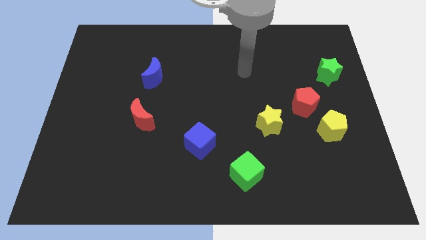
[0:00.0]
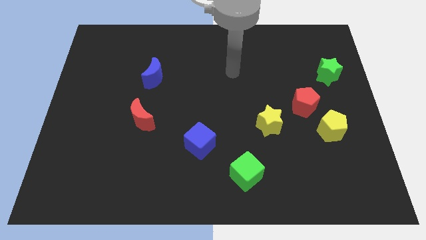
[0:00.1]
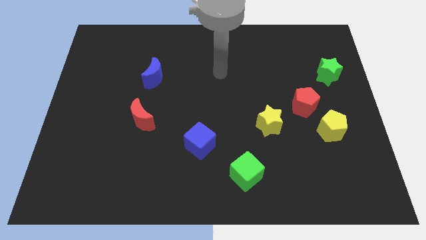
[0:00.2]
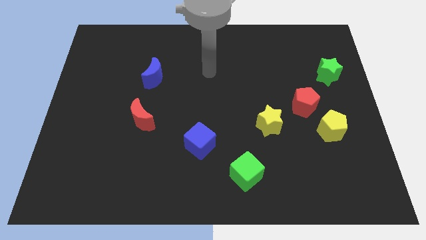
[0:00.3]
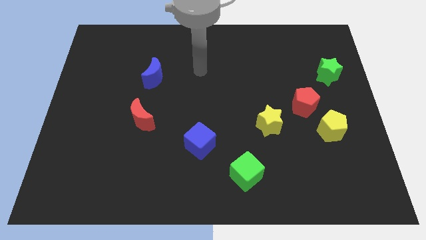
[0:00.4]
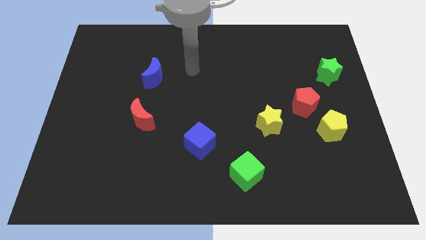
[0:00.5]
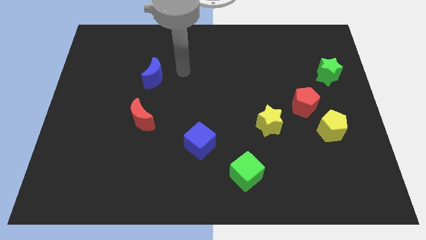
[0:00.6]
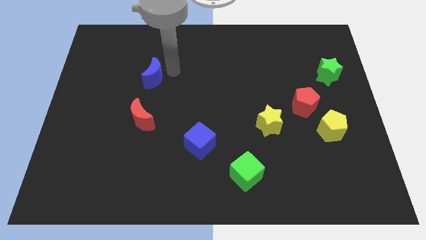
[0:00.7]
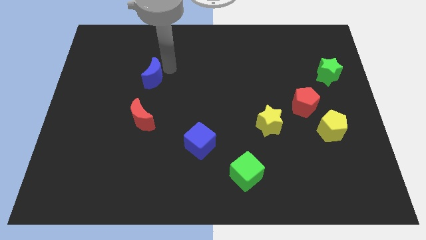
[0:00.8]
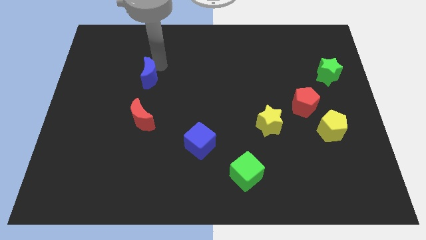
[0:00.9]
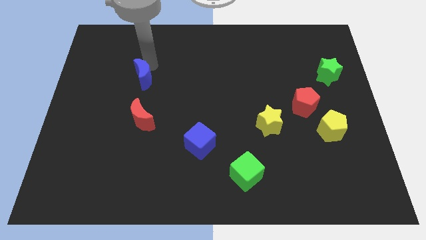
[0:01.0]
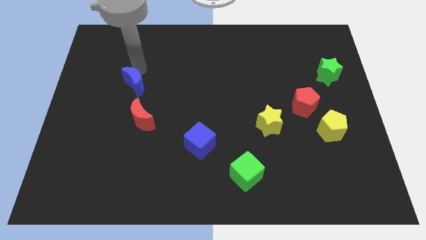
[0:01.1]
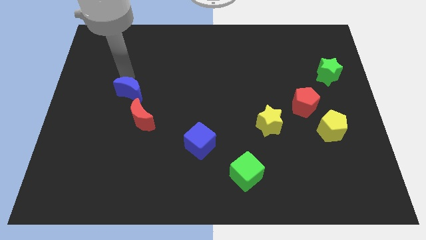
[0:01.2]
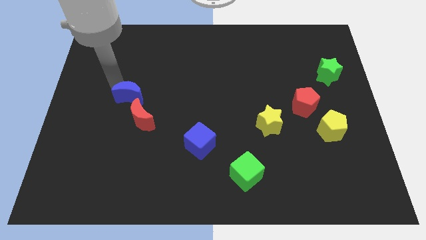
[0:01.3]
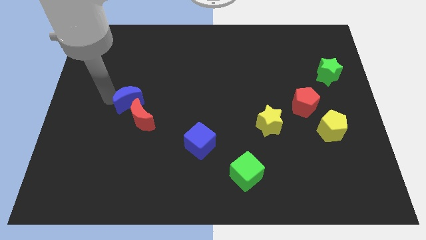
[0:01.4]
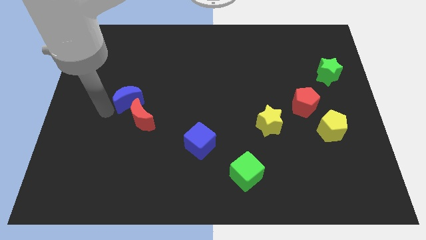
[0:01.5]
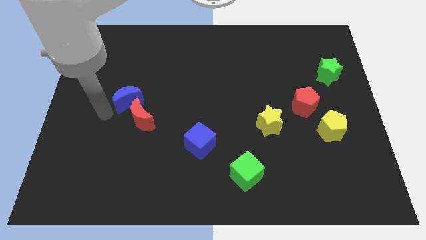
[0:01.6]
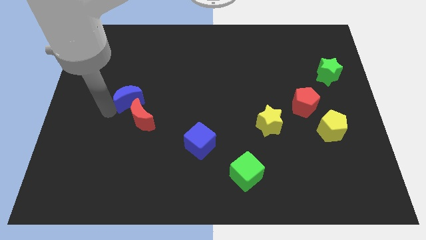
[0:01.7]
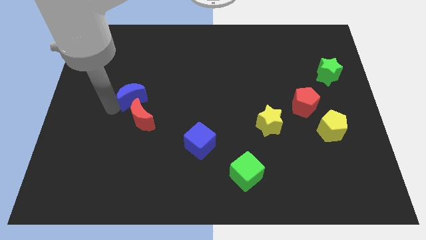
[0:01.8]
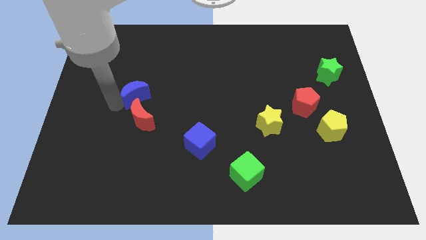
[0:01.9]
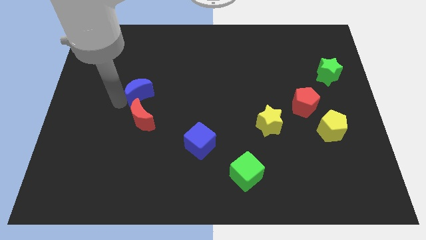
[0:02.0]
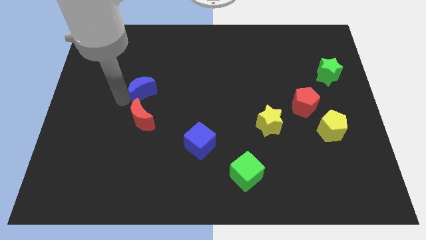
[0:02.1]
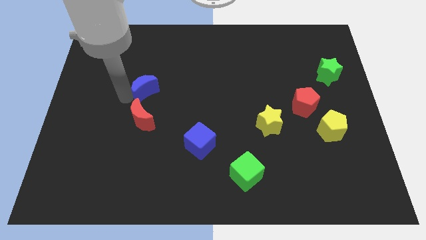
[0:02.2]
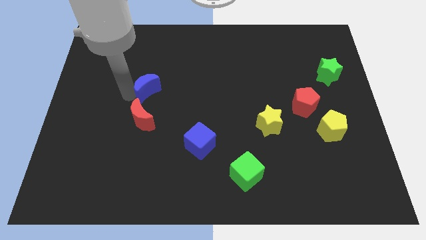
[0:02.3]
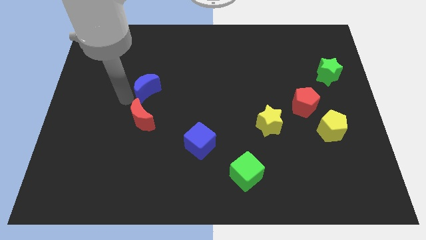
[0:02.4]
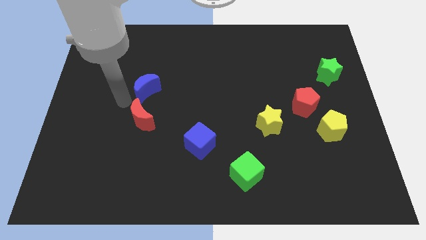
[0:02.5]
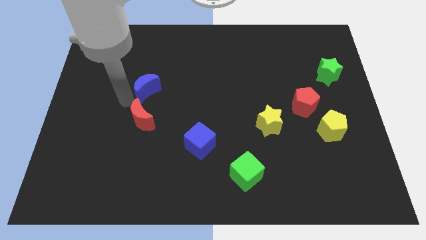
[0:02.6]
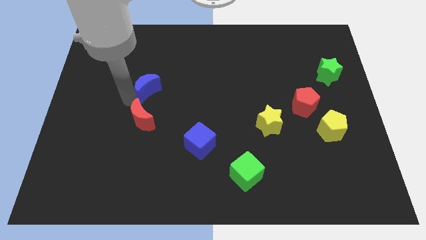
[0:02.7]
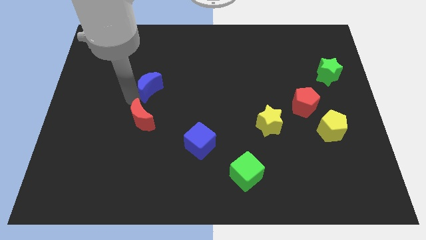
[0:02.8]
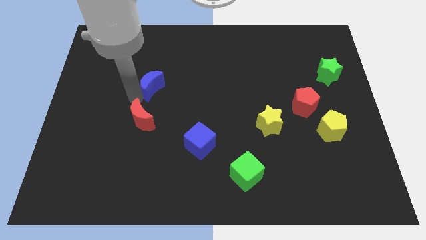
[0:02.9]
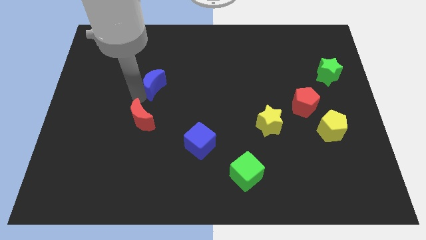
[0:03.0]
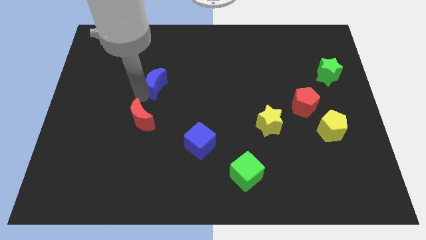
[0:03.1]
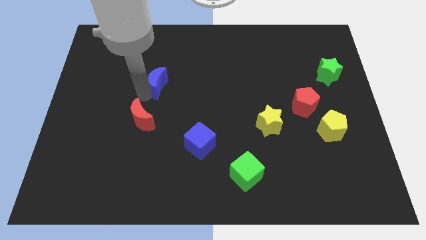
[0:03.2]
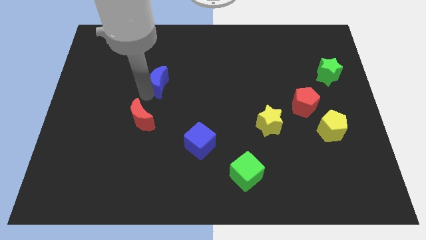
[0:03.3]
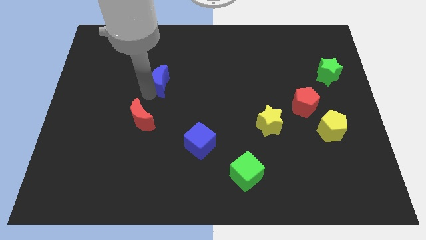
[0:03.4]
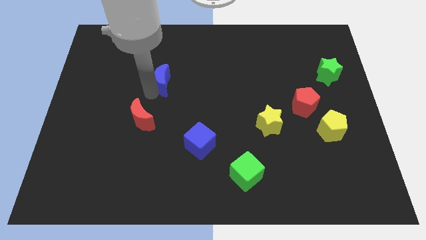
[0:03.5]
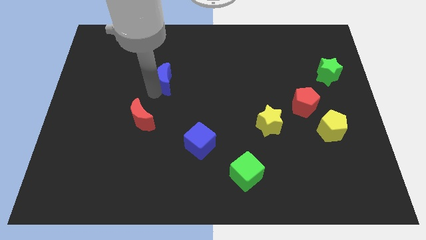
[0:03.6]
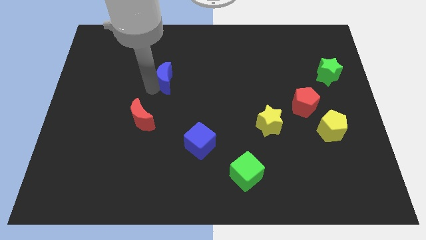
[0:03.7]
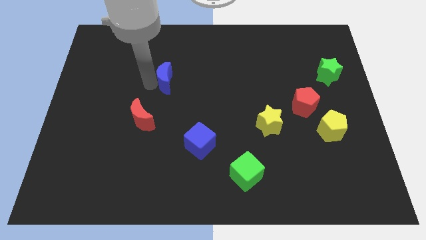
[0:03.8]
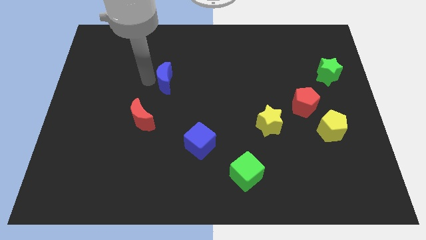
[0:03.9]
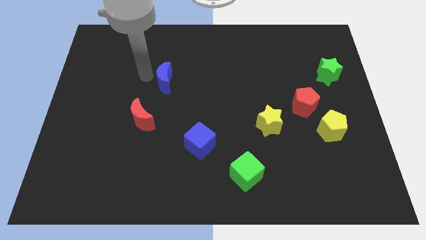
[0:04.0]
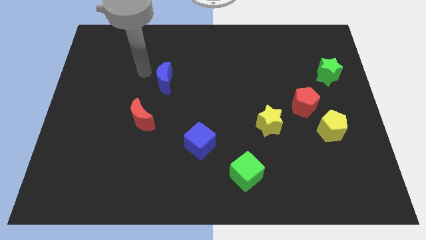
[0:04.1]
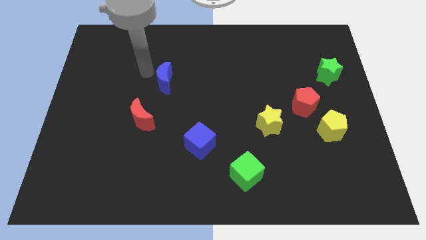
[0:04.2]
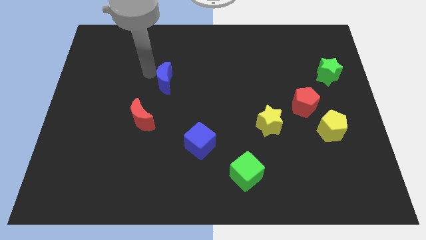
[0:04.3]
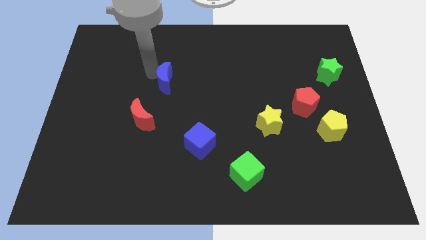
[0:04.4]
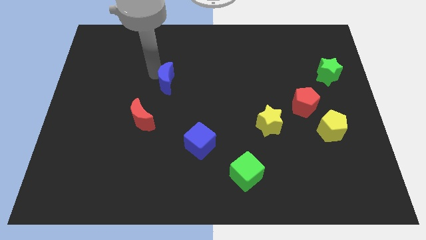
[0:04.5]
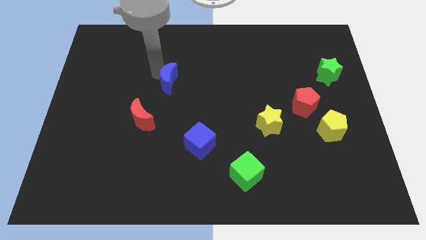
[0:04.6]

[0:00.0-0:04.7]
put the blue moon to the middle

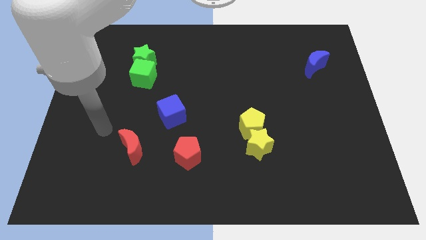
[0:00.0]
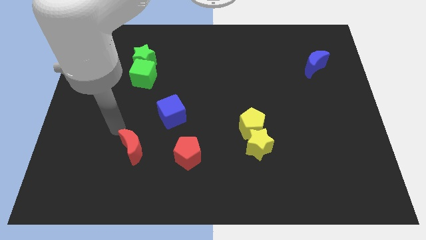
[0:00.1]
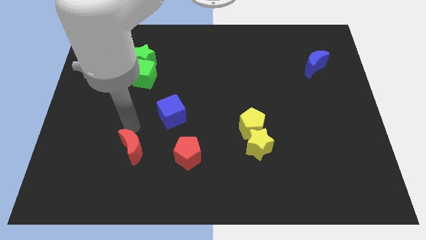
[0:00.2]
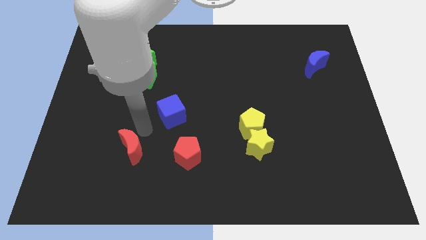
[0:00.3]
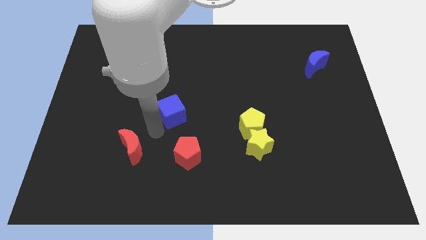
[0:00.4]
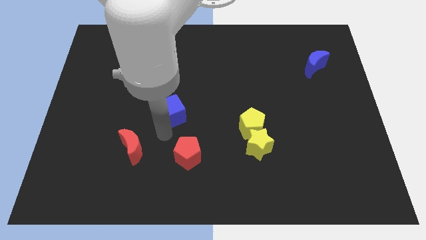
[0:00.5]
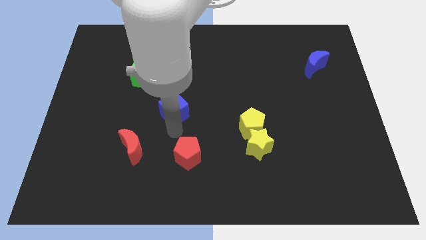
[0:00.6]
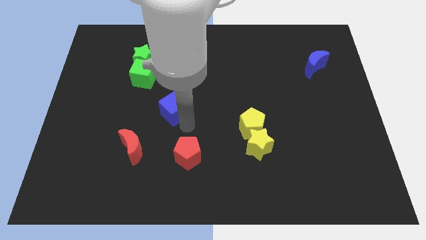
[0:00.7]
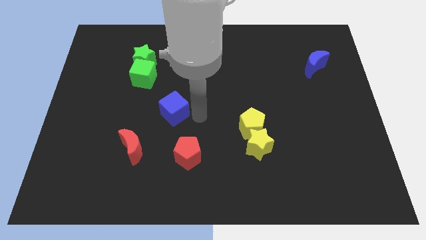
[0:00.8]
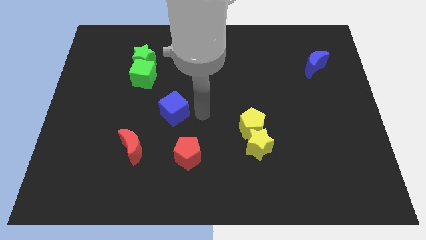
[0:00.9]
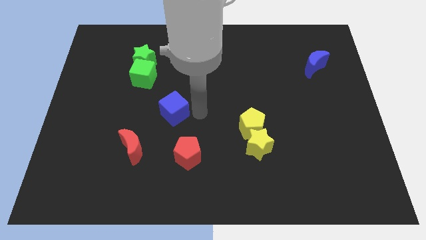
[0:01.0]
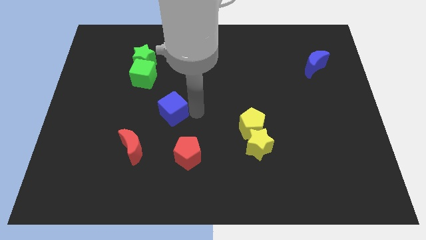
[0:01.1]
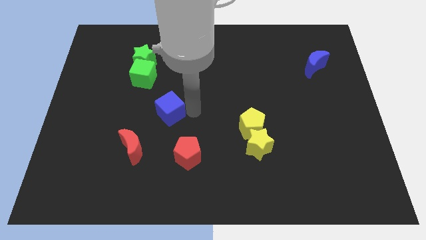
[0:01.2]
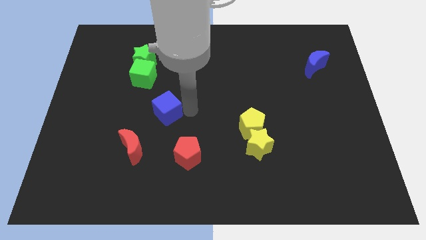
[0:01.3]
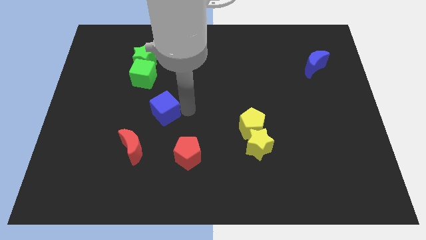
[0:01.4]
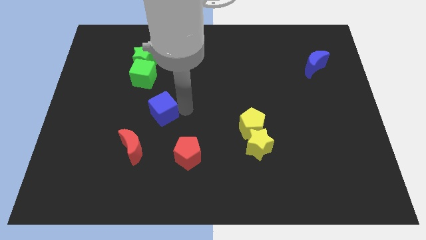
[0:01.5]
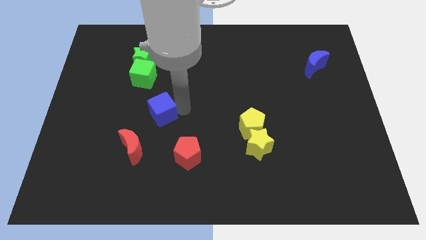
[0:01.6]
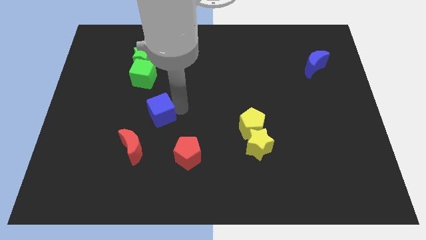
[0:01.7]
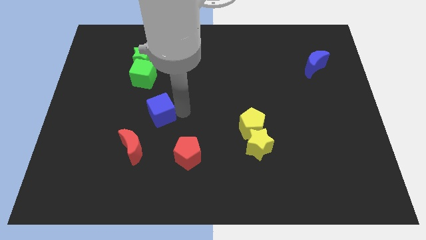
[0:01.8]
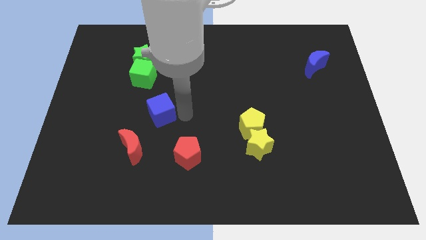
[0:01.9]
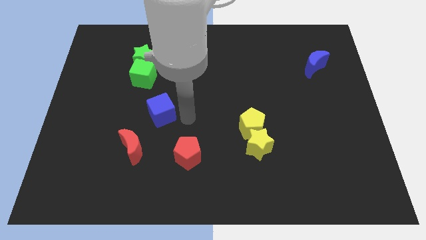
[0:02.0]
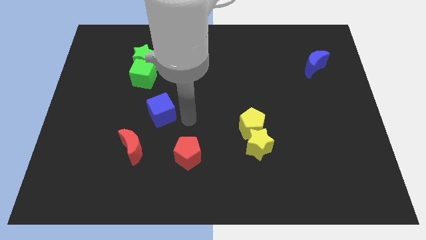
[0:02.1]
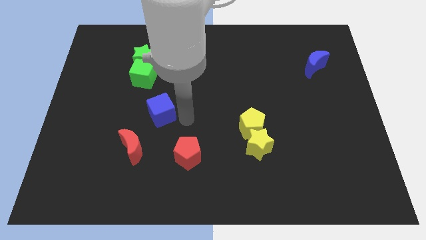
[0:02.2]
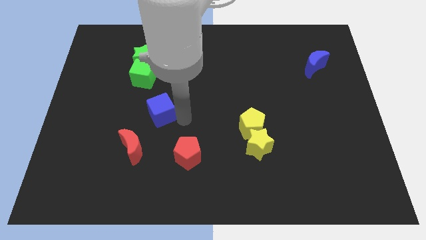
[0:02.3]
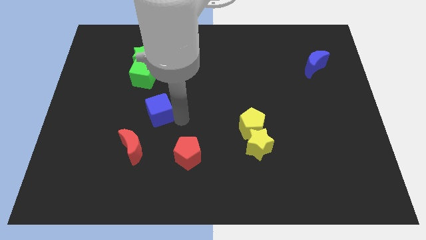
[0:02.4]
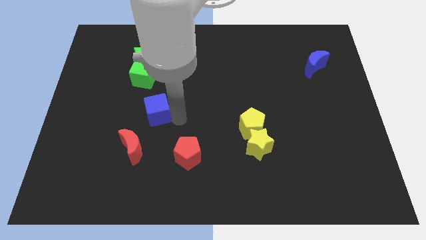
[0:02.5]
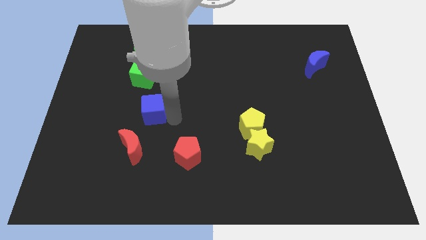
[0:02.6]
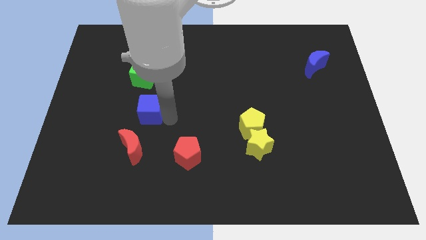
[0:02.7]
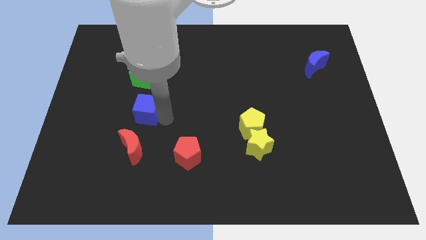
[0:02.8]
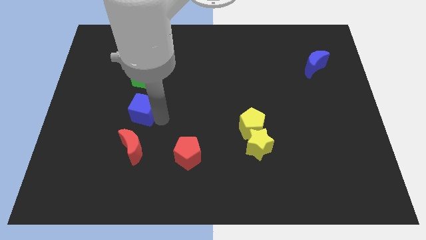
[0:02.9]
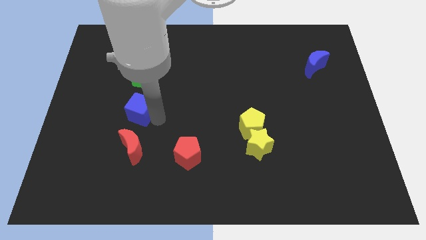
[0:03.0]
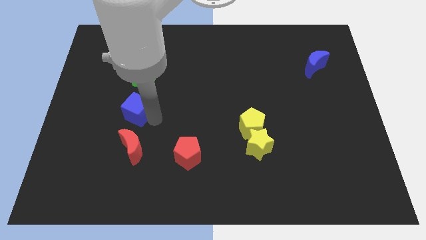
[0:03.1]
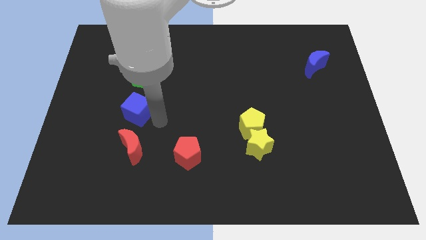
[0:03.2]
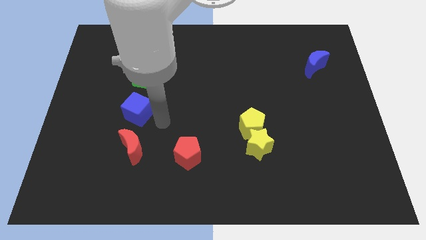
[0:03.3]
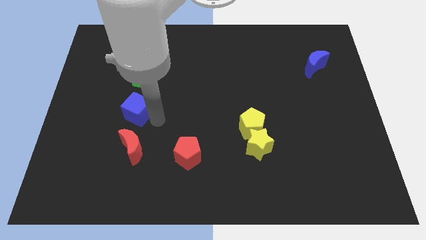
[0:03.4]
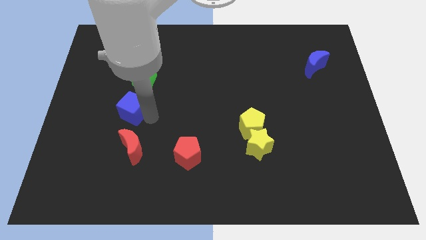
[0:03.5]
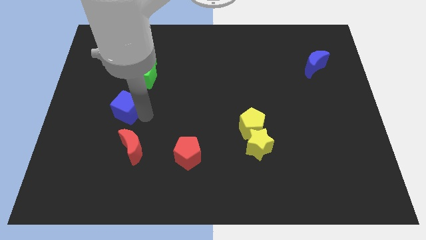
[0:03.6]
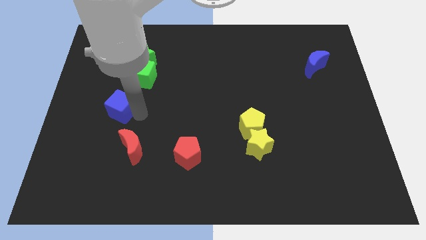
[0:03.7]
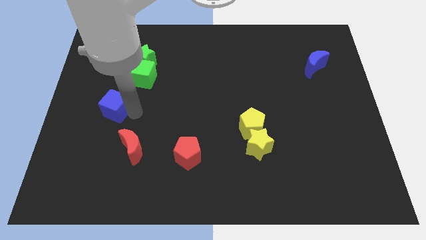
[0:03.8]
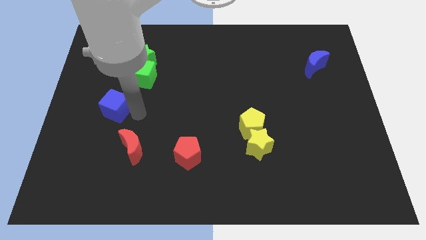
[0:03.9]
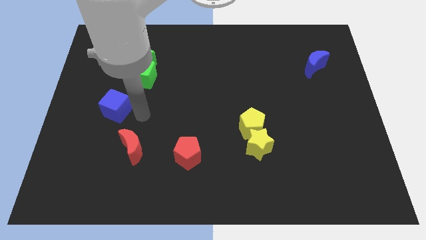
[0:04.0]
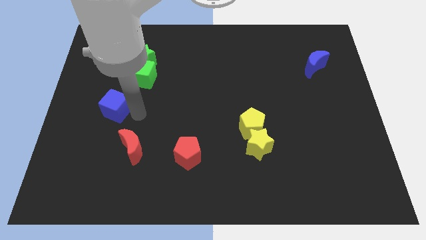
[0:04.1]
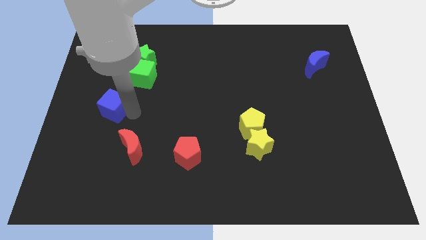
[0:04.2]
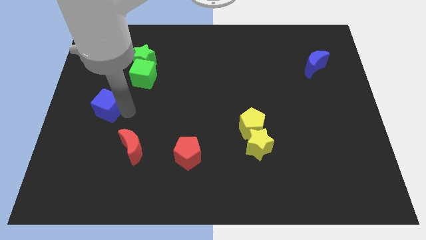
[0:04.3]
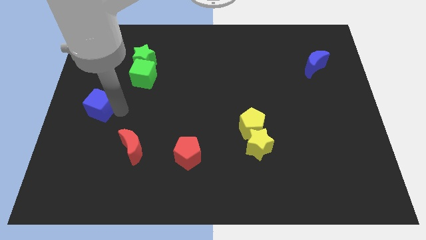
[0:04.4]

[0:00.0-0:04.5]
put the blue cube to the center left
